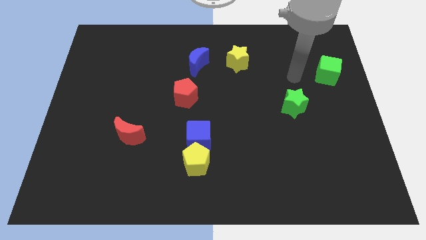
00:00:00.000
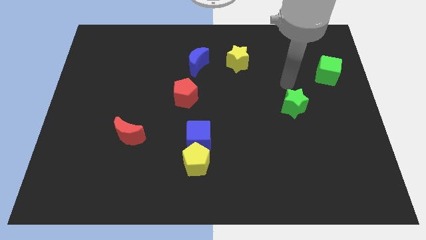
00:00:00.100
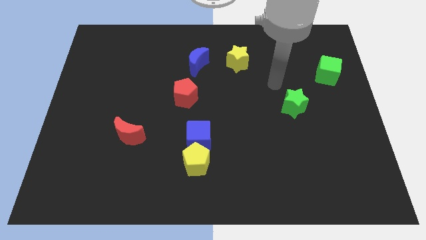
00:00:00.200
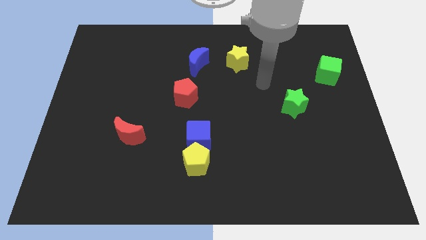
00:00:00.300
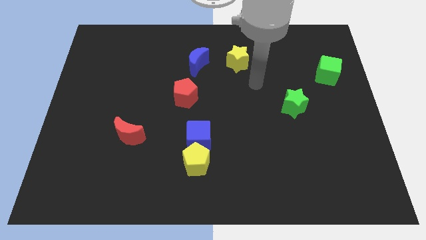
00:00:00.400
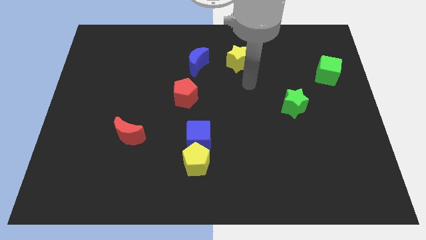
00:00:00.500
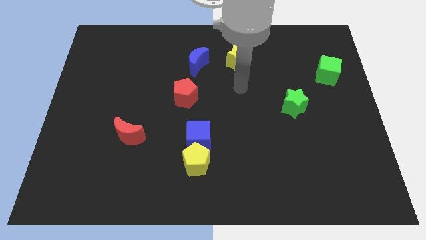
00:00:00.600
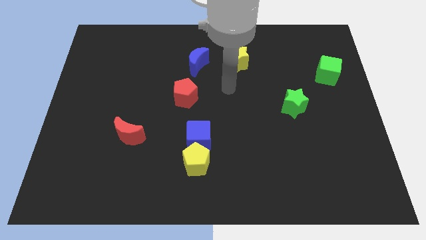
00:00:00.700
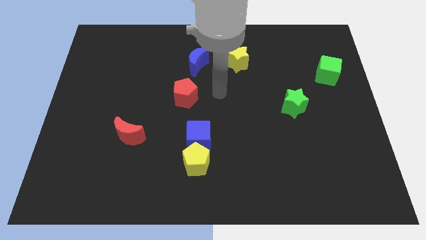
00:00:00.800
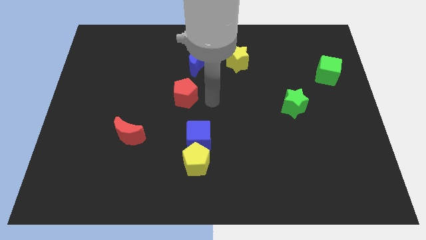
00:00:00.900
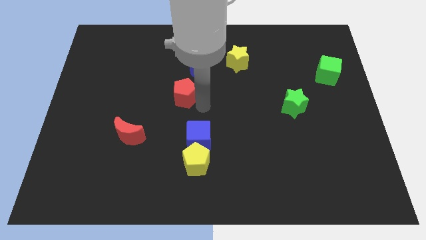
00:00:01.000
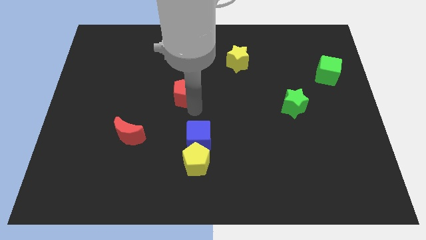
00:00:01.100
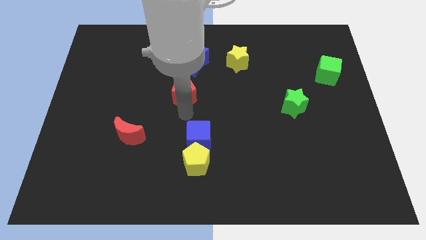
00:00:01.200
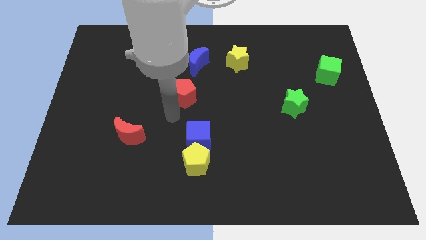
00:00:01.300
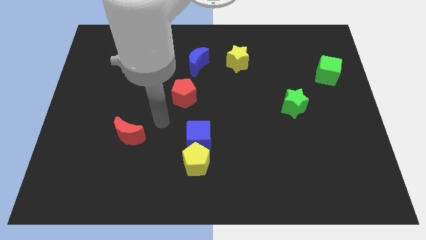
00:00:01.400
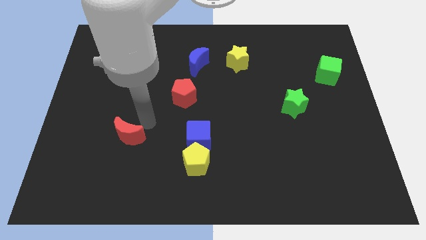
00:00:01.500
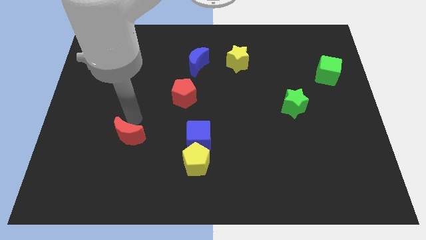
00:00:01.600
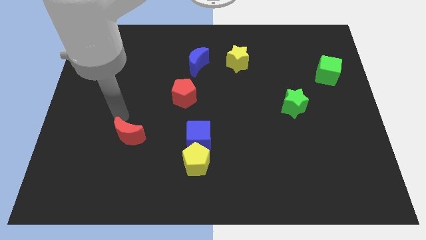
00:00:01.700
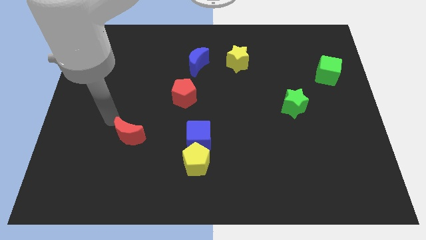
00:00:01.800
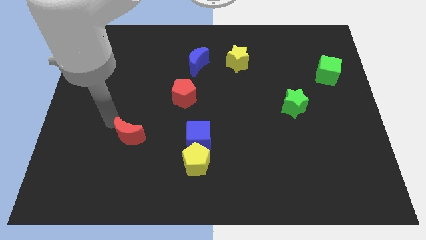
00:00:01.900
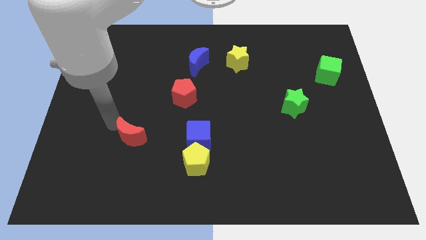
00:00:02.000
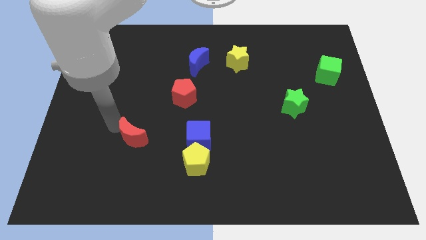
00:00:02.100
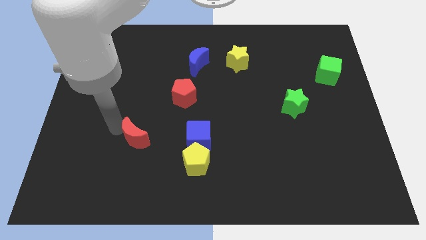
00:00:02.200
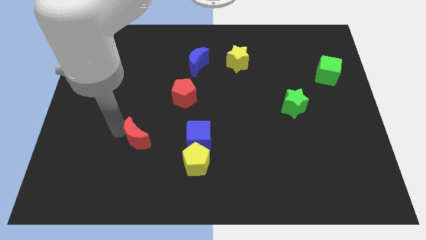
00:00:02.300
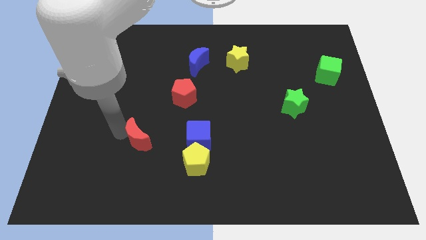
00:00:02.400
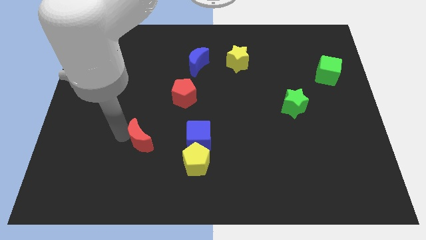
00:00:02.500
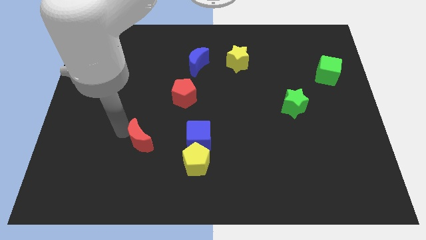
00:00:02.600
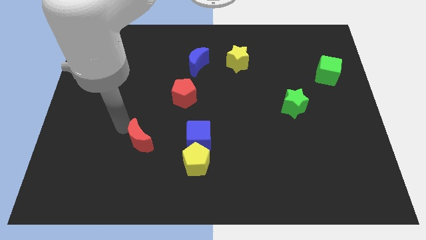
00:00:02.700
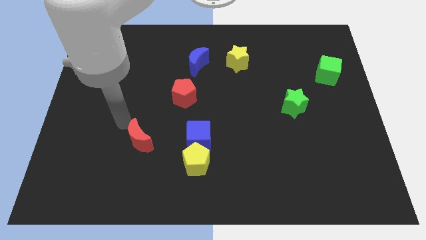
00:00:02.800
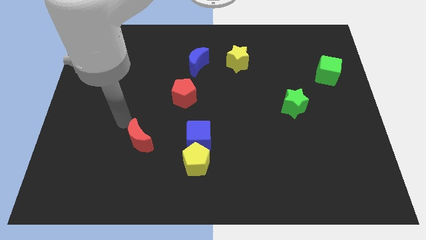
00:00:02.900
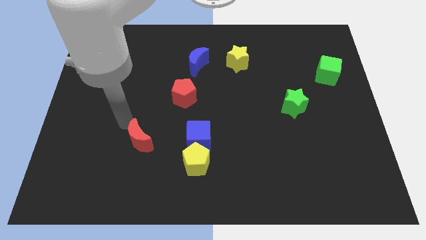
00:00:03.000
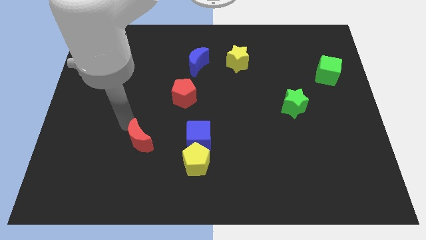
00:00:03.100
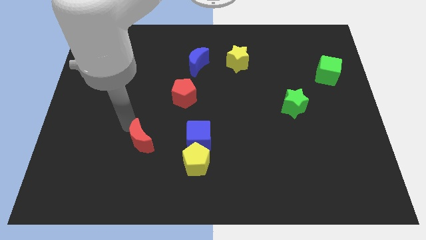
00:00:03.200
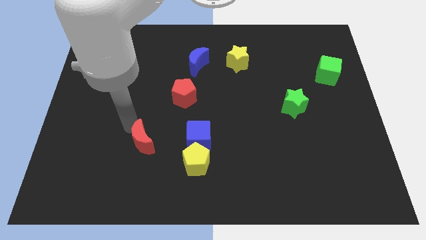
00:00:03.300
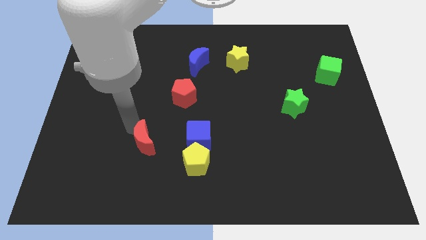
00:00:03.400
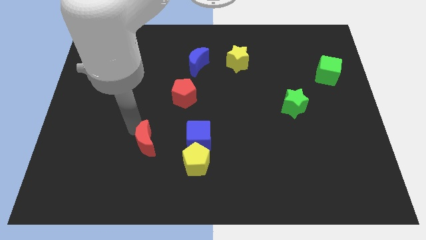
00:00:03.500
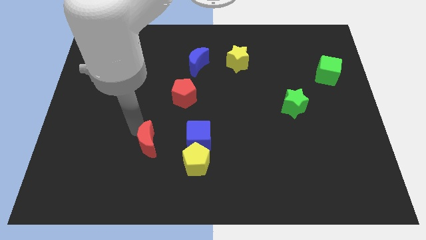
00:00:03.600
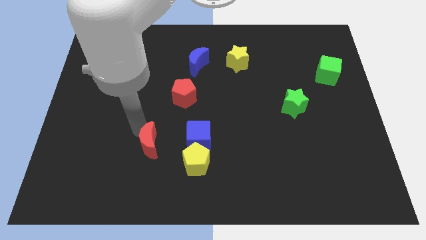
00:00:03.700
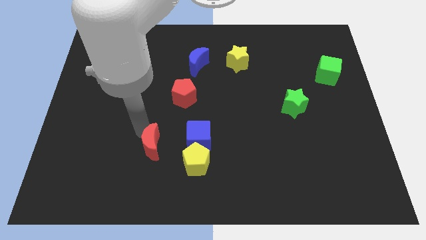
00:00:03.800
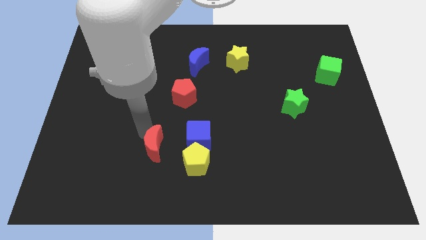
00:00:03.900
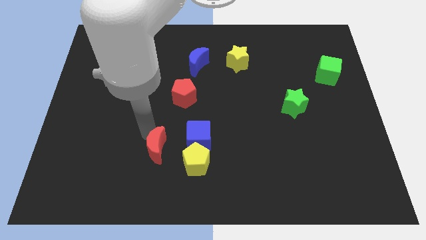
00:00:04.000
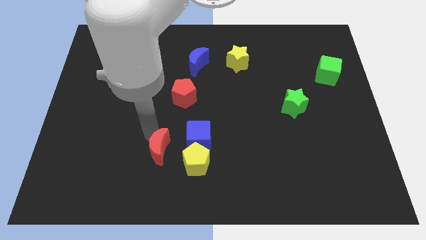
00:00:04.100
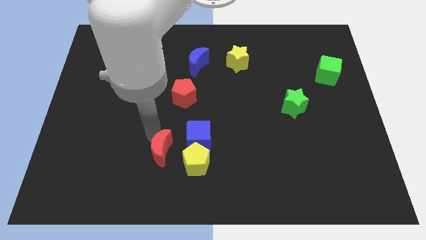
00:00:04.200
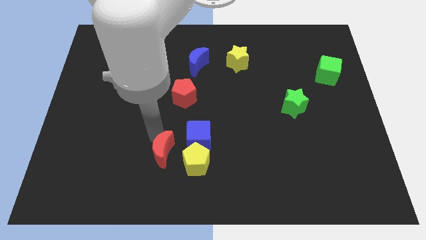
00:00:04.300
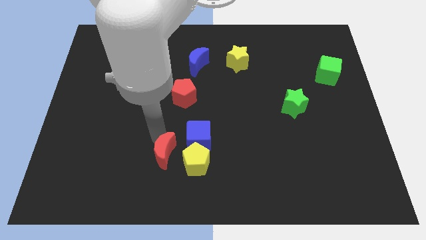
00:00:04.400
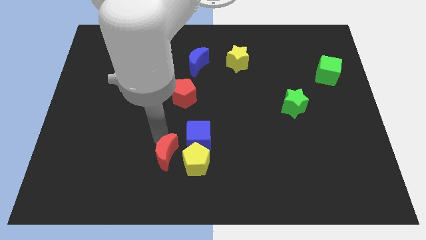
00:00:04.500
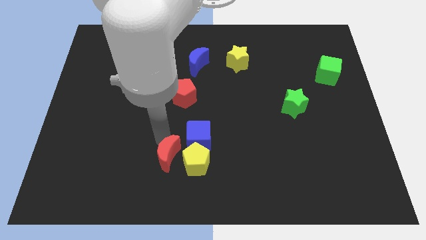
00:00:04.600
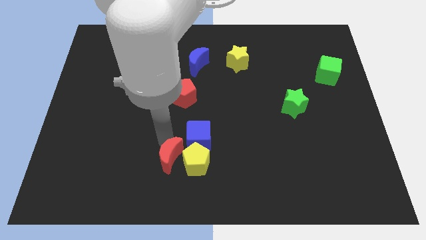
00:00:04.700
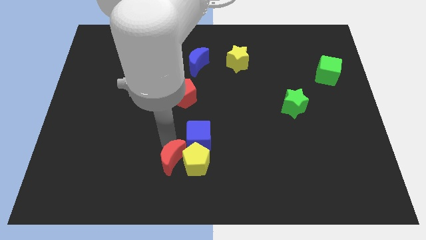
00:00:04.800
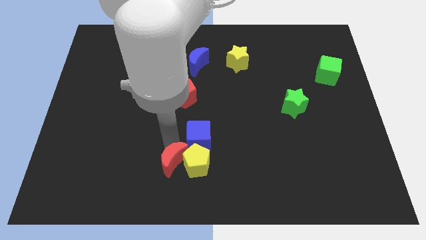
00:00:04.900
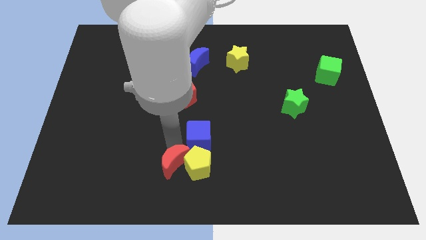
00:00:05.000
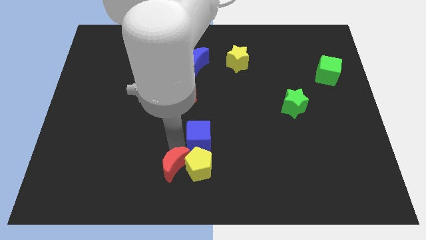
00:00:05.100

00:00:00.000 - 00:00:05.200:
push the red moon to the bottom
